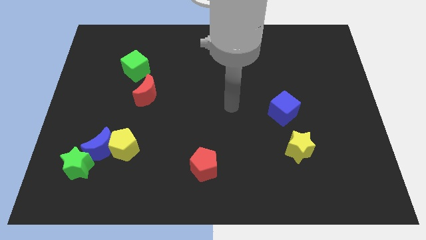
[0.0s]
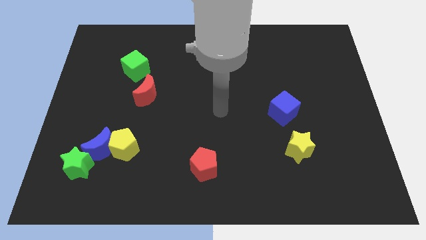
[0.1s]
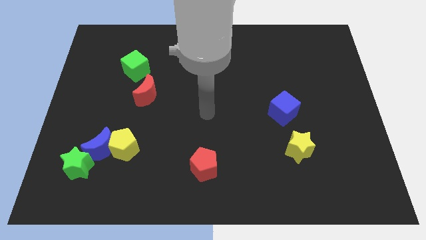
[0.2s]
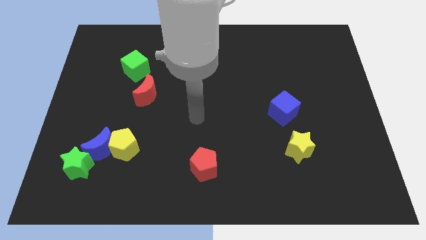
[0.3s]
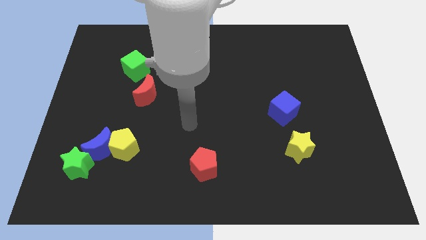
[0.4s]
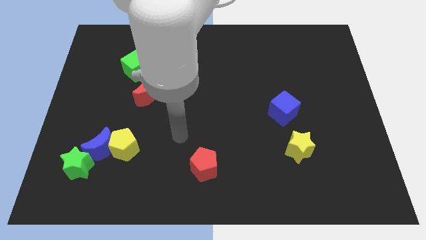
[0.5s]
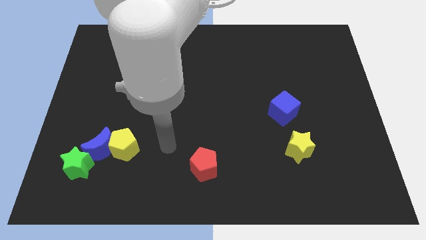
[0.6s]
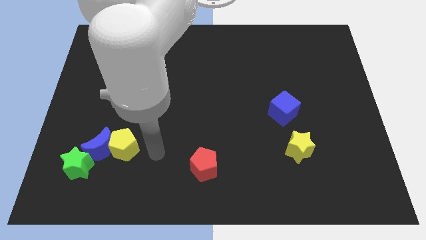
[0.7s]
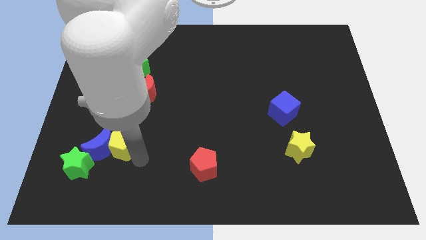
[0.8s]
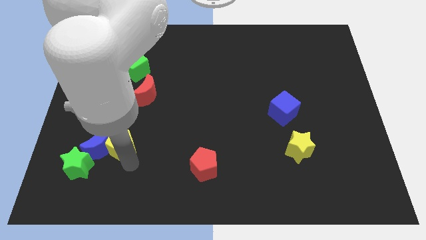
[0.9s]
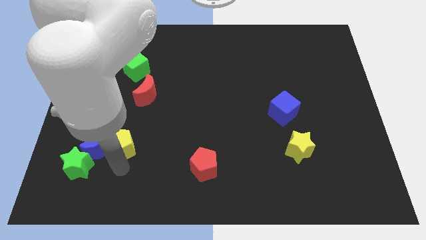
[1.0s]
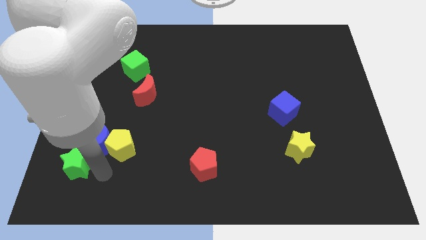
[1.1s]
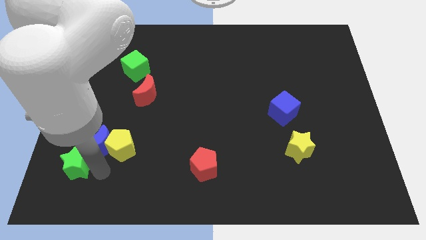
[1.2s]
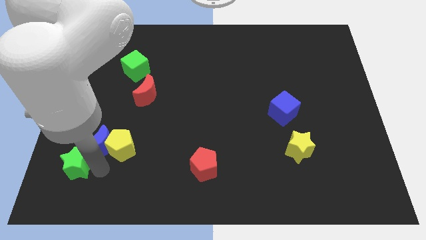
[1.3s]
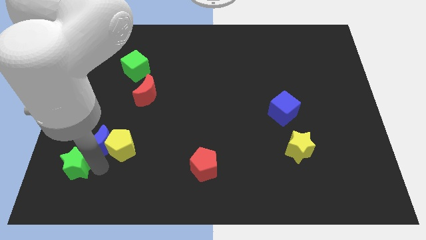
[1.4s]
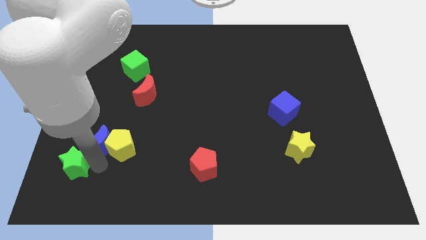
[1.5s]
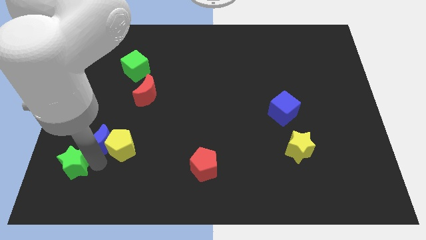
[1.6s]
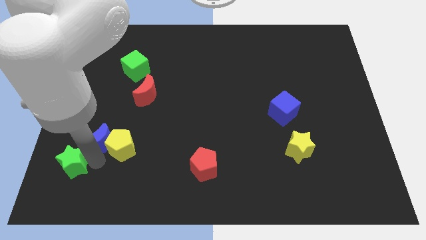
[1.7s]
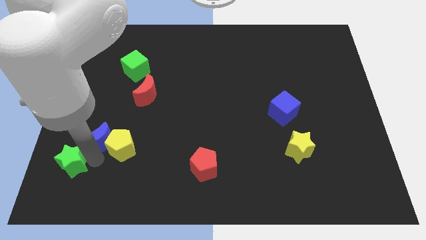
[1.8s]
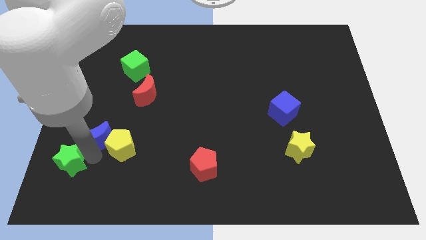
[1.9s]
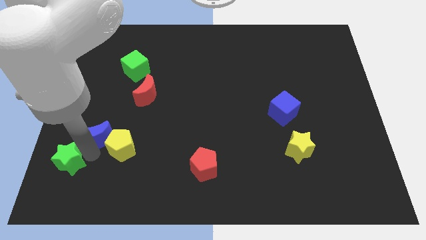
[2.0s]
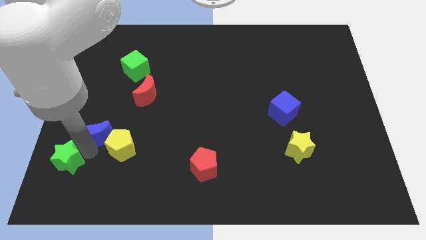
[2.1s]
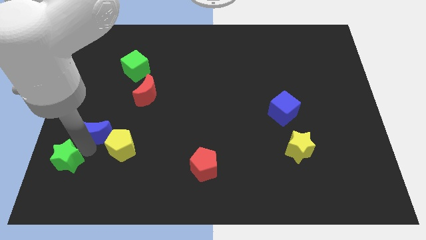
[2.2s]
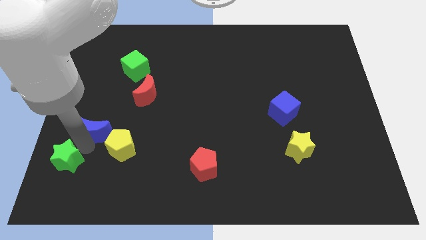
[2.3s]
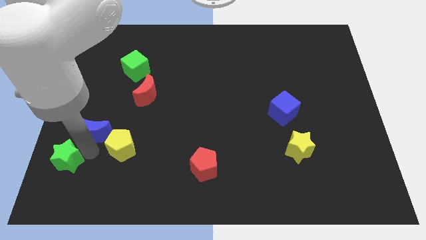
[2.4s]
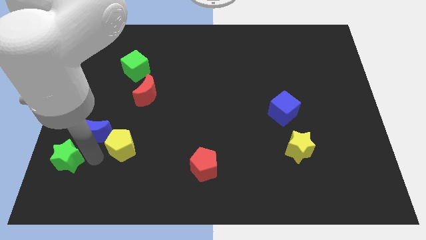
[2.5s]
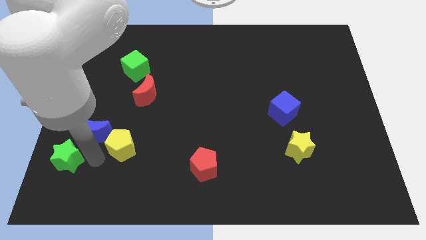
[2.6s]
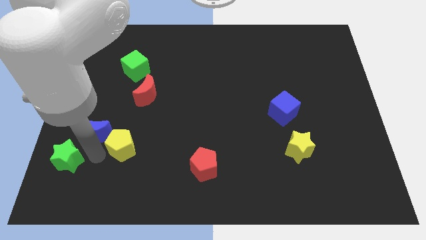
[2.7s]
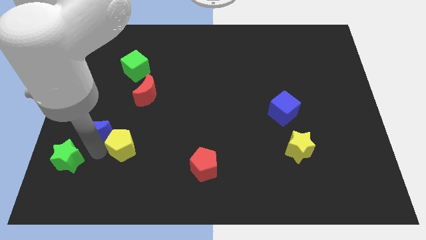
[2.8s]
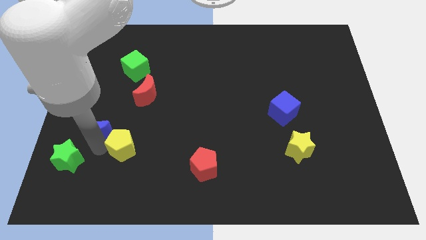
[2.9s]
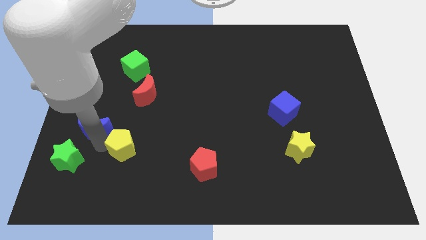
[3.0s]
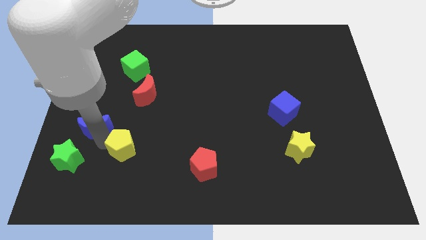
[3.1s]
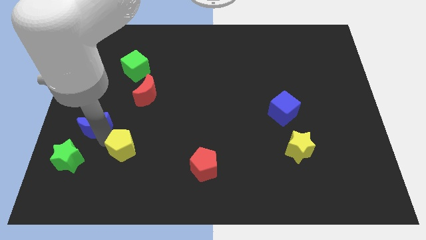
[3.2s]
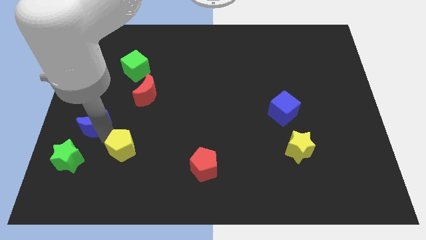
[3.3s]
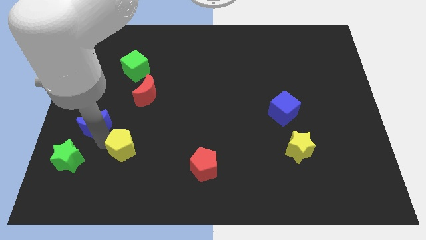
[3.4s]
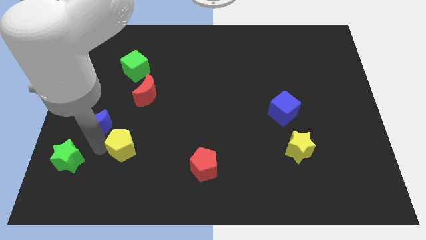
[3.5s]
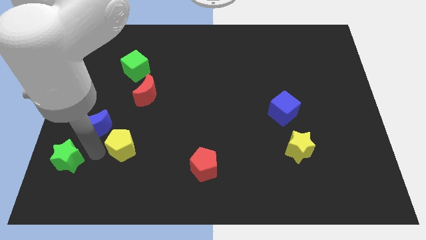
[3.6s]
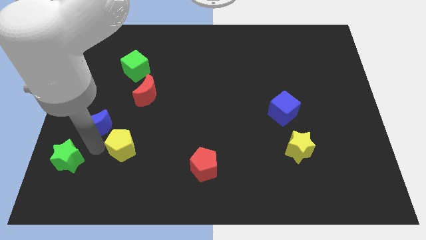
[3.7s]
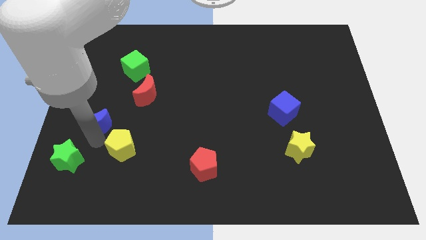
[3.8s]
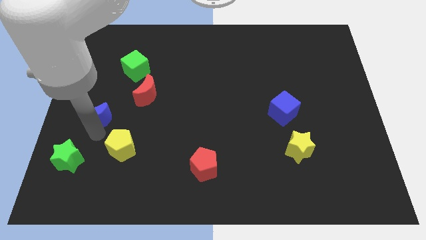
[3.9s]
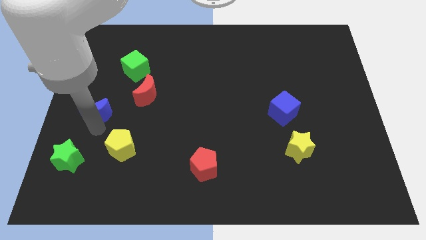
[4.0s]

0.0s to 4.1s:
pull the blue moon apart from the yellow pentagon and green star

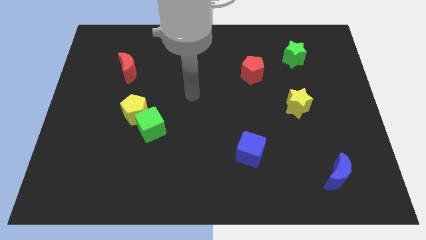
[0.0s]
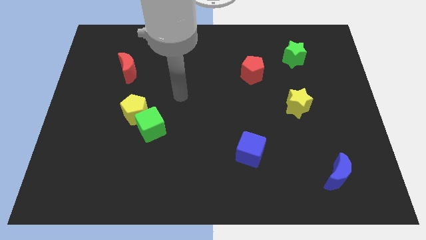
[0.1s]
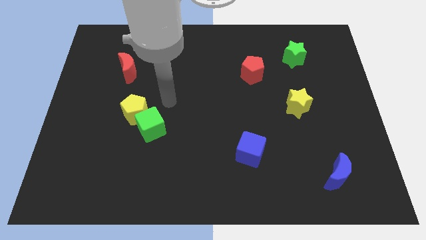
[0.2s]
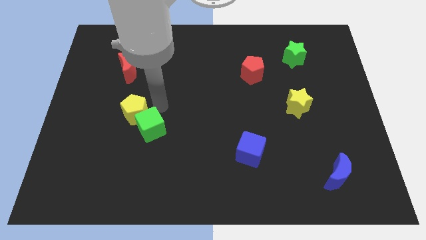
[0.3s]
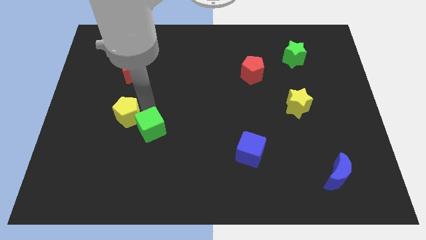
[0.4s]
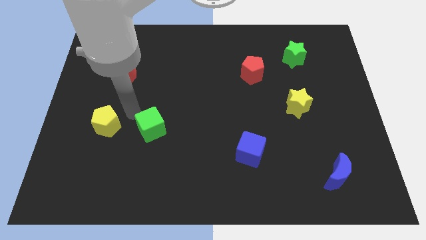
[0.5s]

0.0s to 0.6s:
move the green cube away from the yellow pentagon

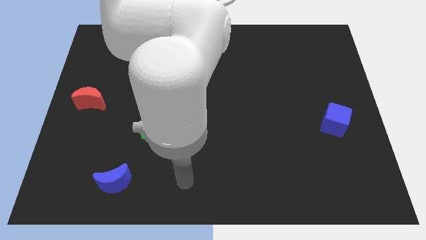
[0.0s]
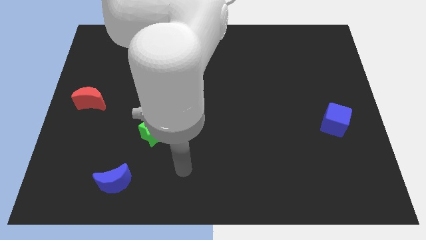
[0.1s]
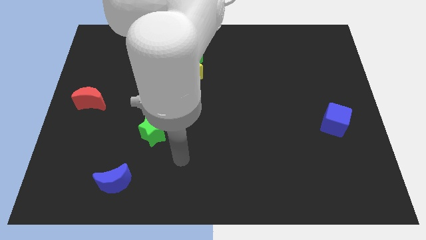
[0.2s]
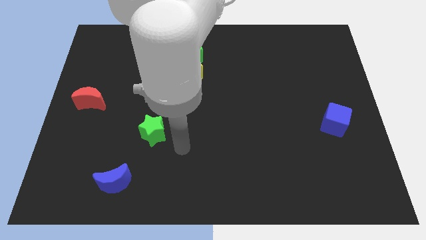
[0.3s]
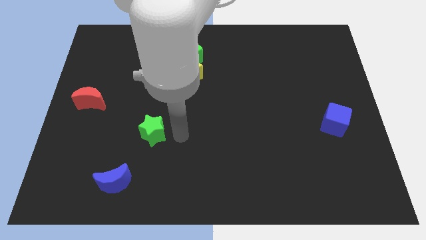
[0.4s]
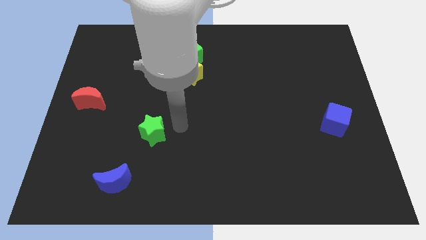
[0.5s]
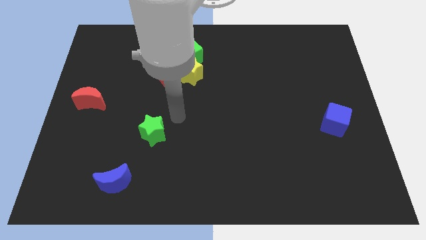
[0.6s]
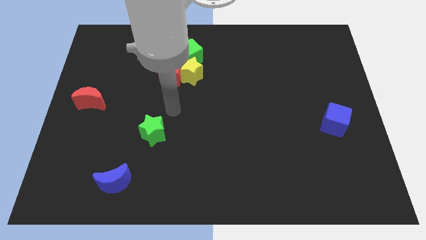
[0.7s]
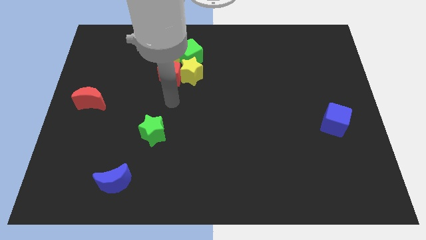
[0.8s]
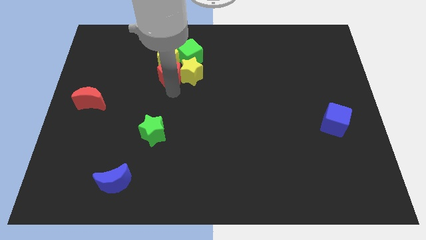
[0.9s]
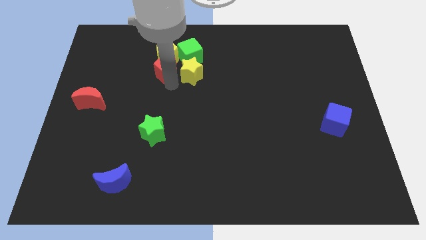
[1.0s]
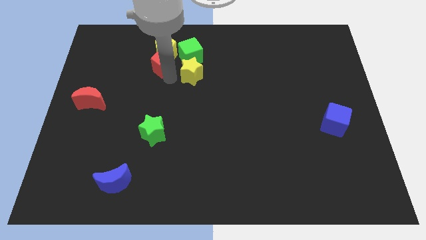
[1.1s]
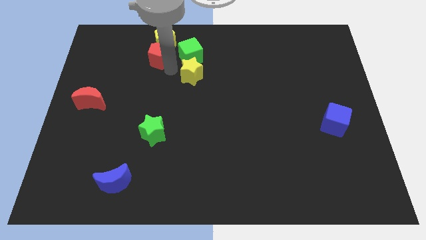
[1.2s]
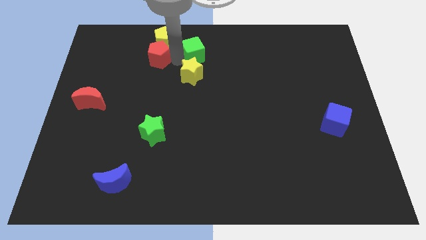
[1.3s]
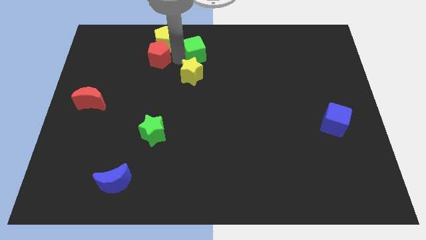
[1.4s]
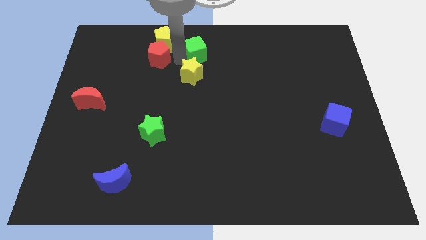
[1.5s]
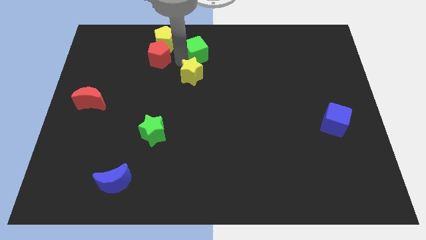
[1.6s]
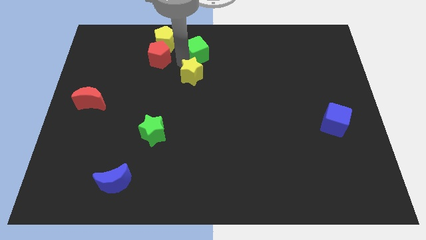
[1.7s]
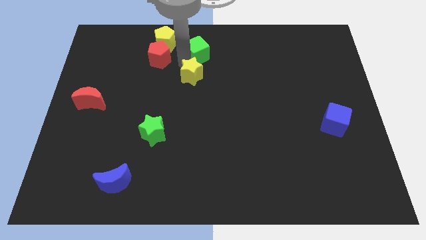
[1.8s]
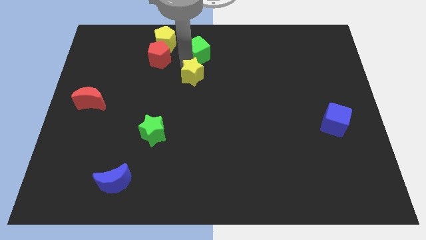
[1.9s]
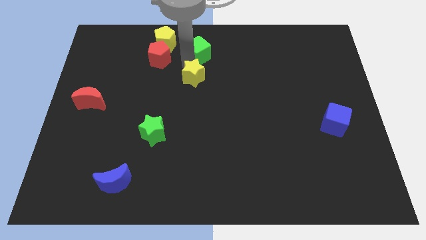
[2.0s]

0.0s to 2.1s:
separate the yellow star from the red pentagon, green cube, and yellow pentagon

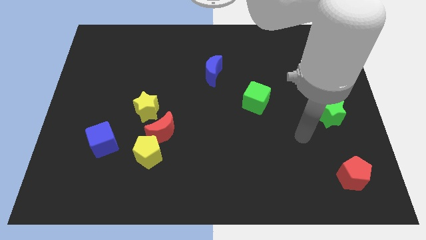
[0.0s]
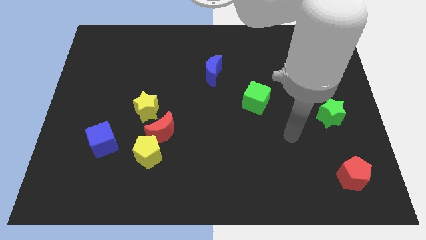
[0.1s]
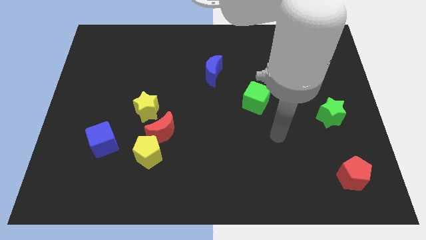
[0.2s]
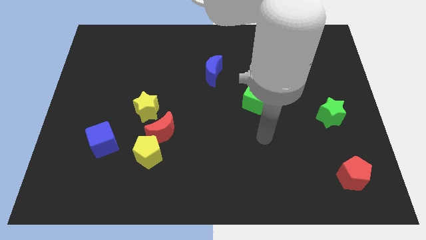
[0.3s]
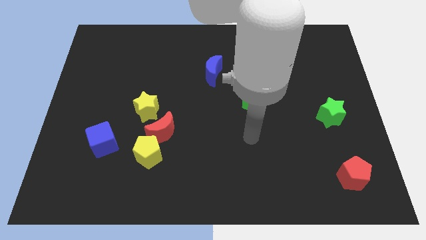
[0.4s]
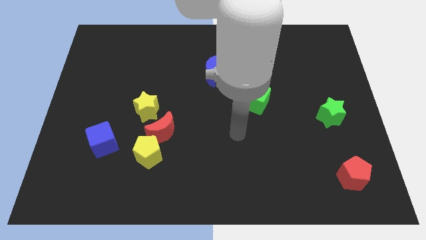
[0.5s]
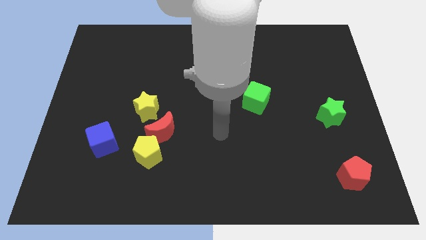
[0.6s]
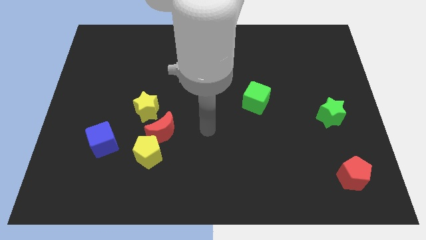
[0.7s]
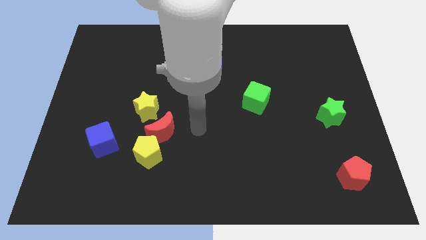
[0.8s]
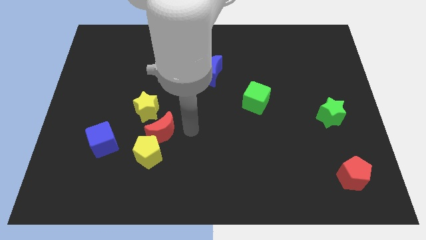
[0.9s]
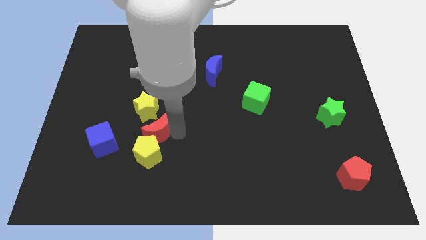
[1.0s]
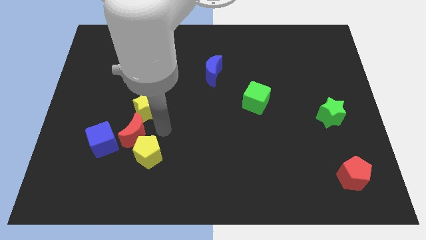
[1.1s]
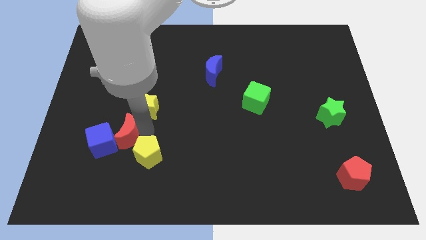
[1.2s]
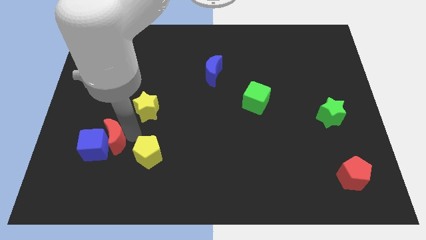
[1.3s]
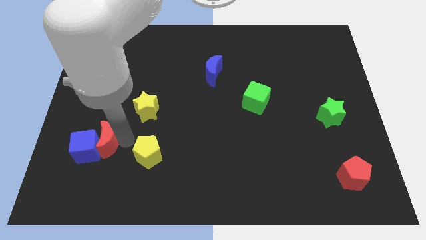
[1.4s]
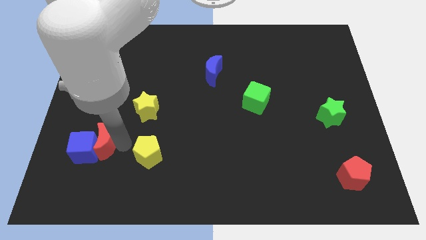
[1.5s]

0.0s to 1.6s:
pull the yellow pentagon apart from the red moon

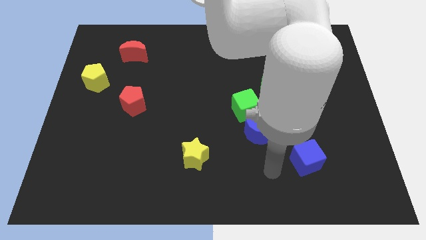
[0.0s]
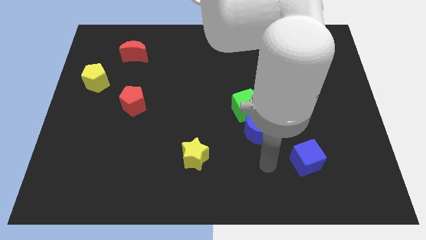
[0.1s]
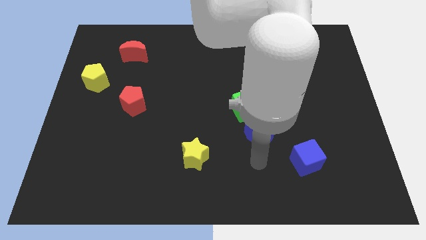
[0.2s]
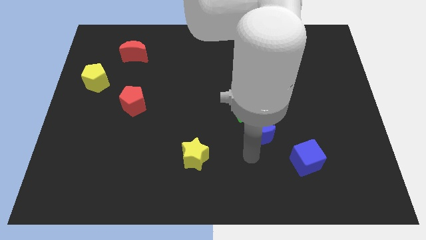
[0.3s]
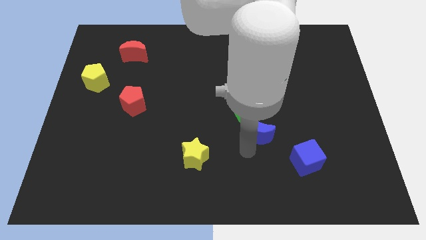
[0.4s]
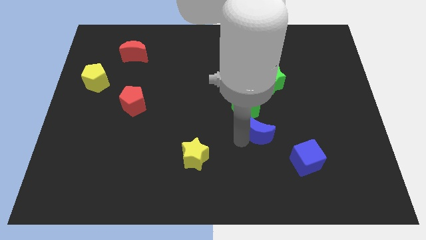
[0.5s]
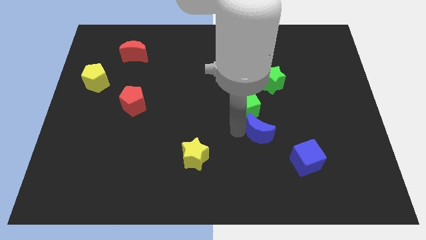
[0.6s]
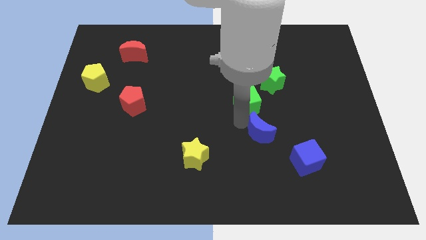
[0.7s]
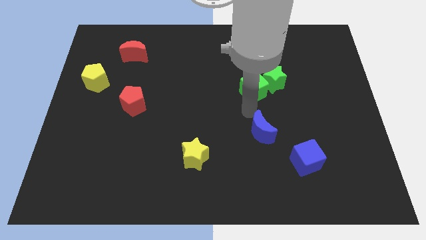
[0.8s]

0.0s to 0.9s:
separate the blue moon from the green cube
